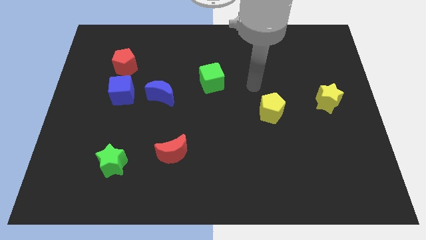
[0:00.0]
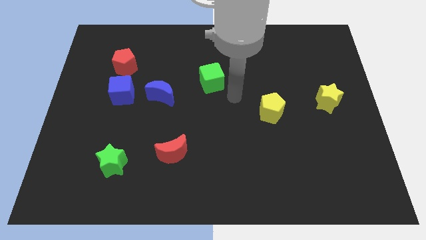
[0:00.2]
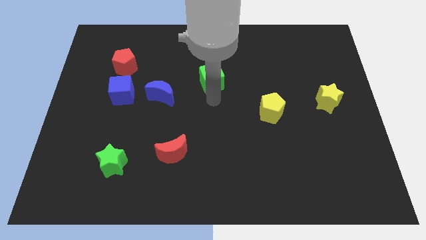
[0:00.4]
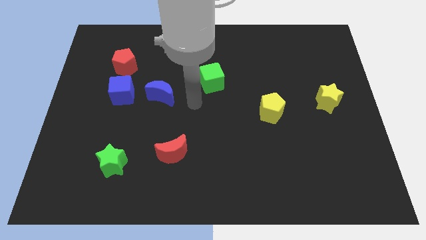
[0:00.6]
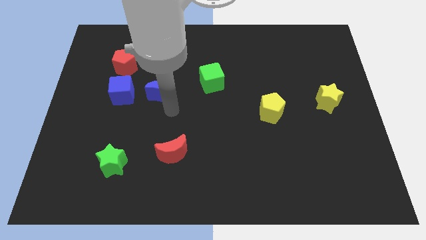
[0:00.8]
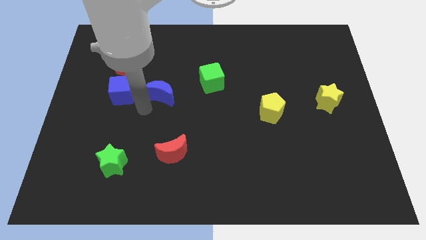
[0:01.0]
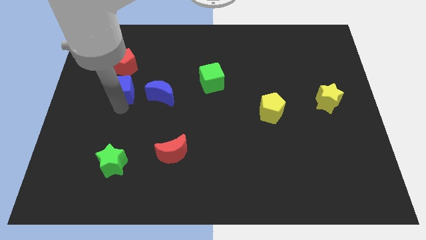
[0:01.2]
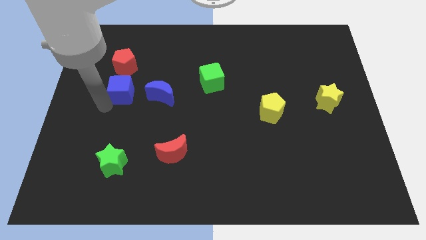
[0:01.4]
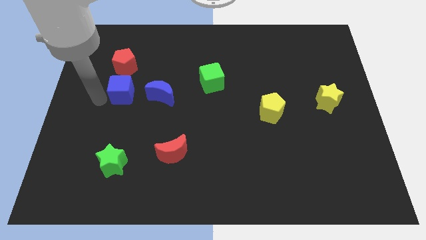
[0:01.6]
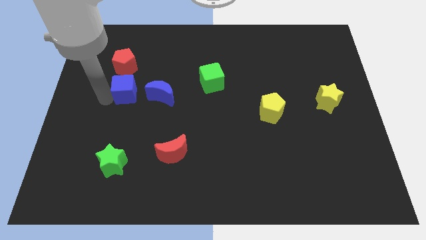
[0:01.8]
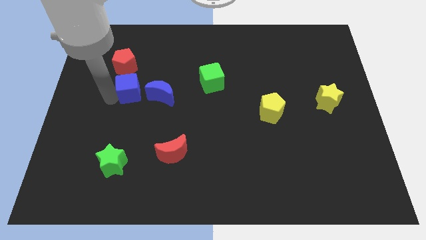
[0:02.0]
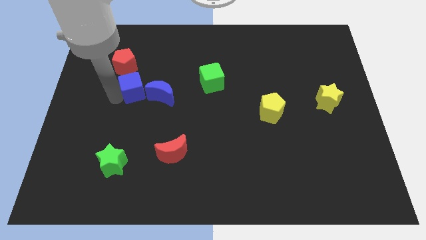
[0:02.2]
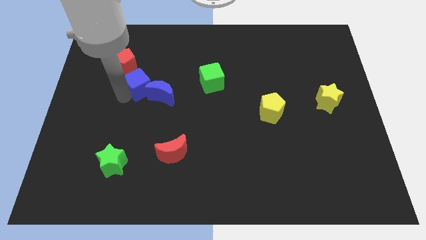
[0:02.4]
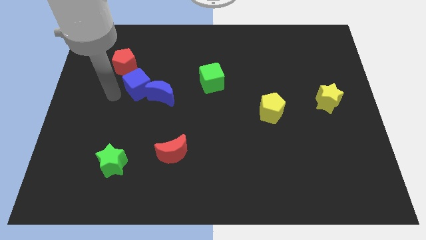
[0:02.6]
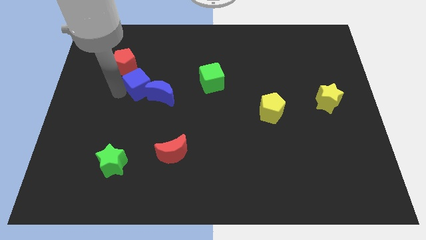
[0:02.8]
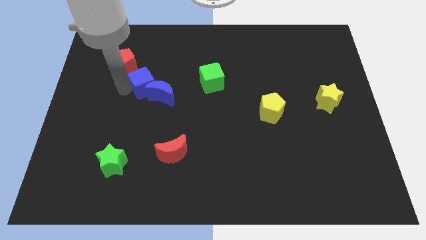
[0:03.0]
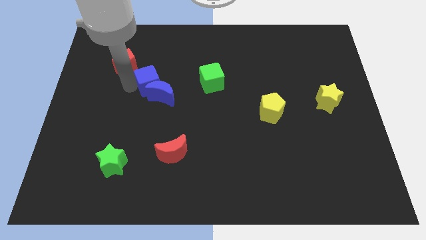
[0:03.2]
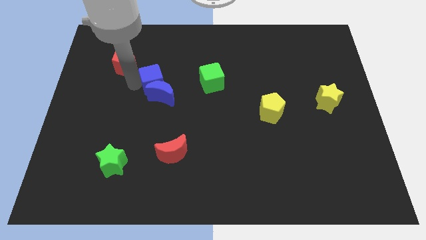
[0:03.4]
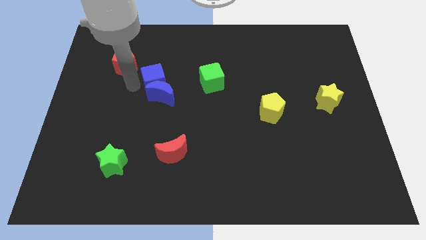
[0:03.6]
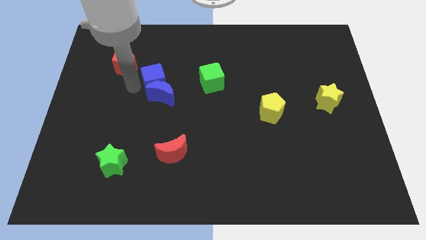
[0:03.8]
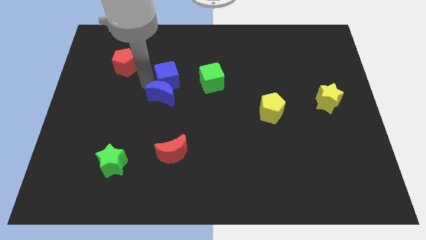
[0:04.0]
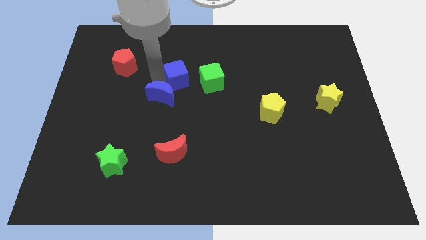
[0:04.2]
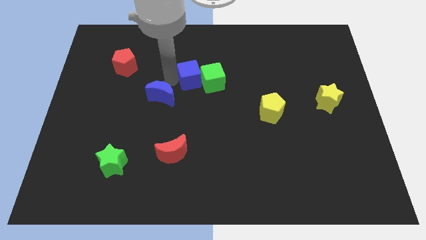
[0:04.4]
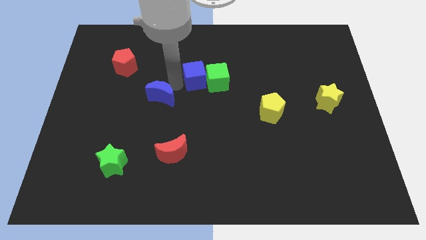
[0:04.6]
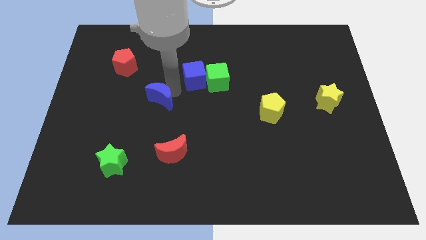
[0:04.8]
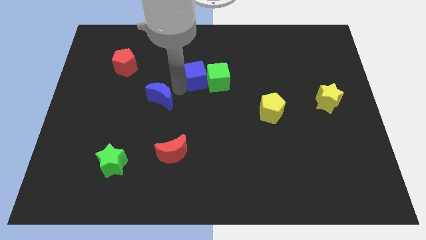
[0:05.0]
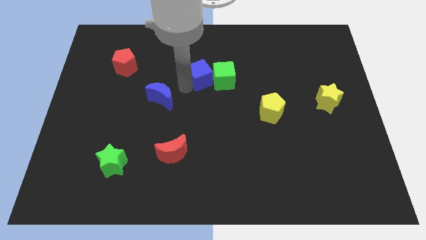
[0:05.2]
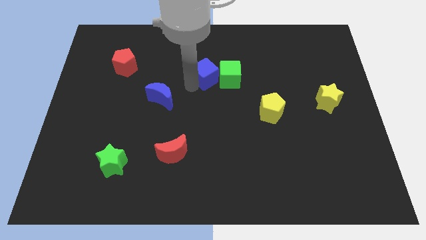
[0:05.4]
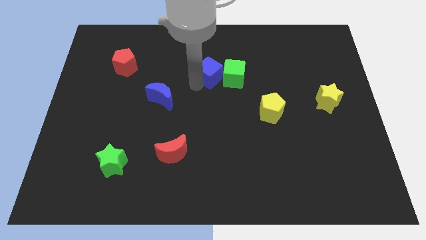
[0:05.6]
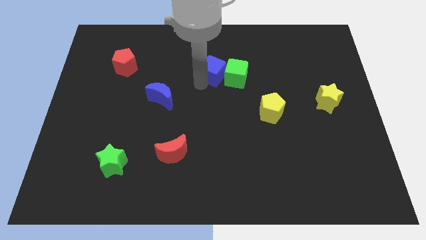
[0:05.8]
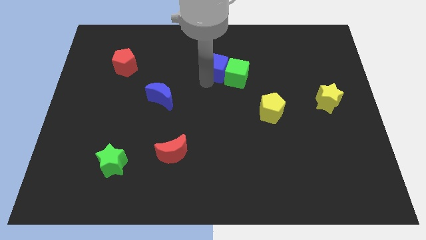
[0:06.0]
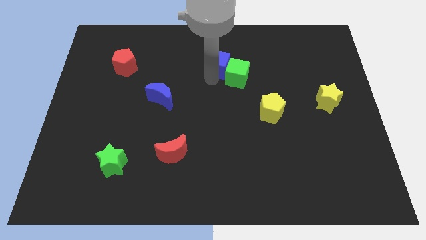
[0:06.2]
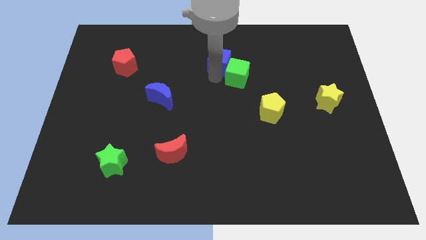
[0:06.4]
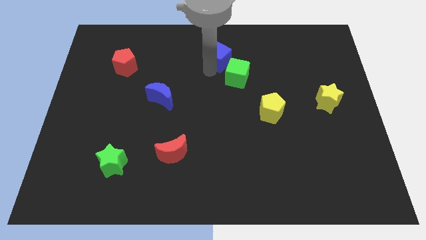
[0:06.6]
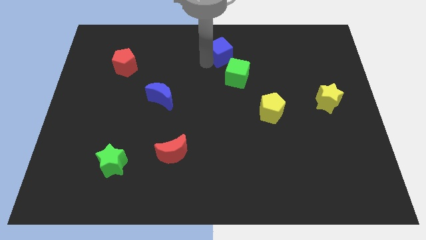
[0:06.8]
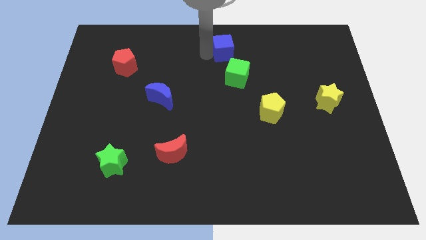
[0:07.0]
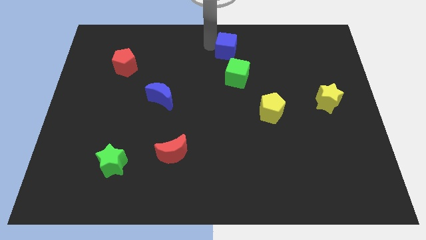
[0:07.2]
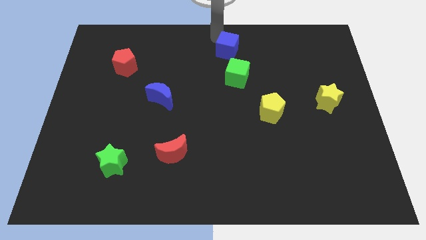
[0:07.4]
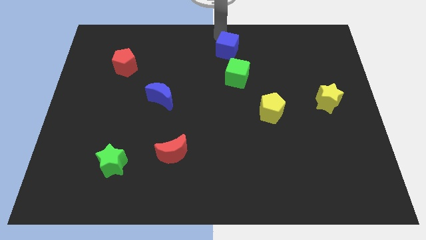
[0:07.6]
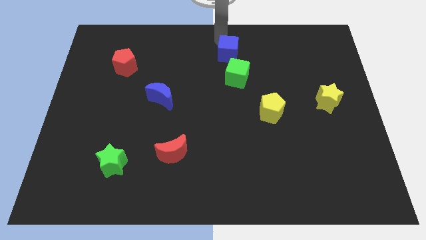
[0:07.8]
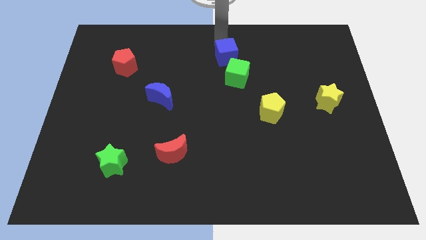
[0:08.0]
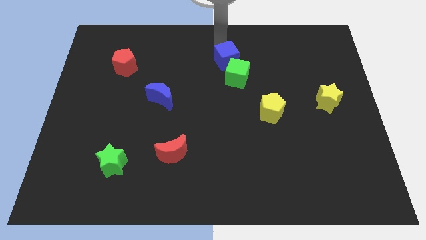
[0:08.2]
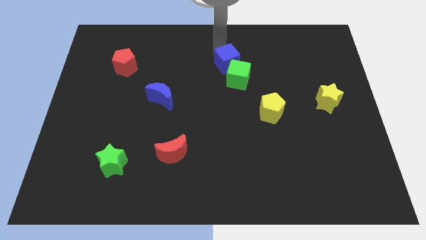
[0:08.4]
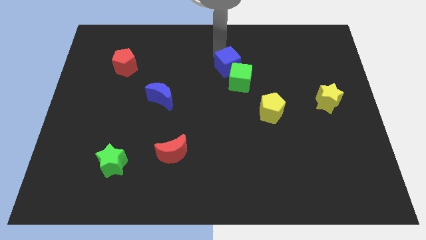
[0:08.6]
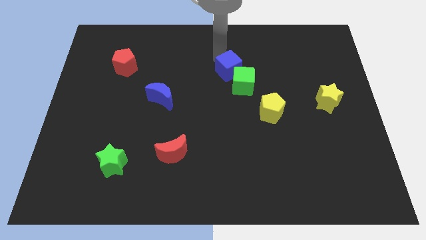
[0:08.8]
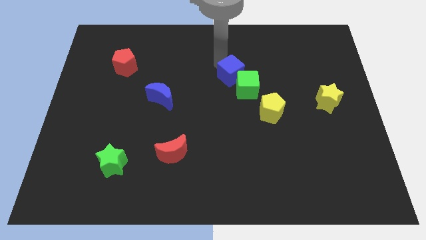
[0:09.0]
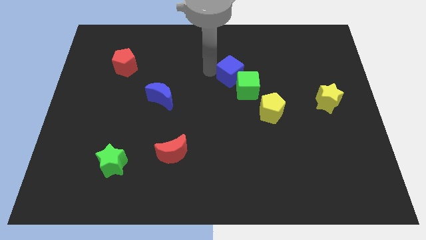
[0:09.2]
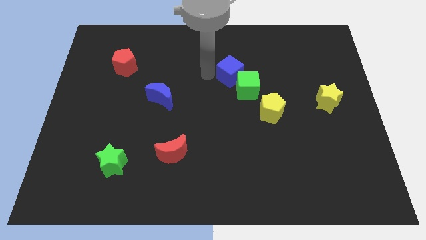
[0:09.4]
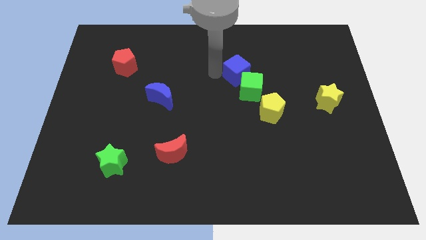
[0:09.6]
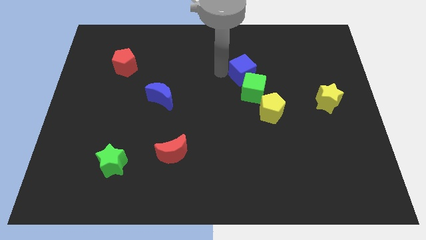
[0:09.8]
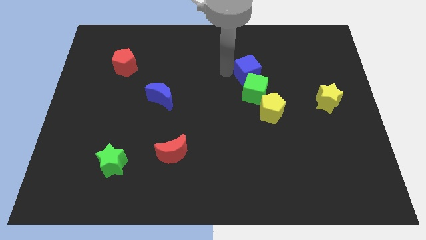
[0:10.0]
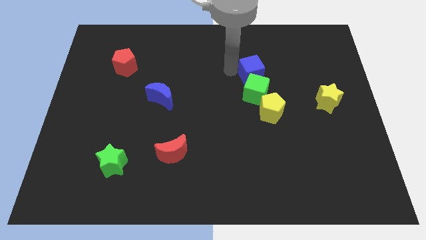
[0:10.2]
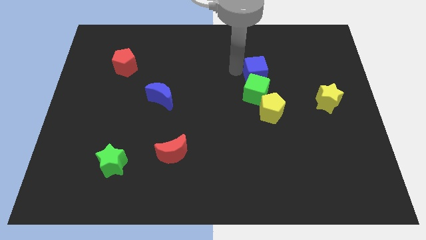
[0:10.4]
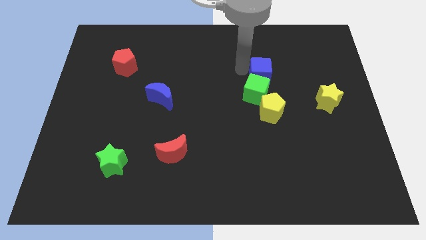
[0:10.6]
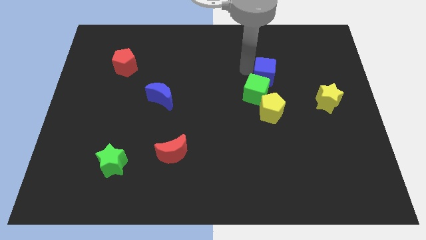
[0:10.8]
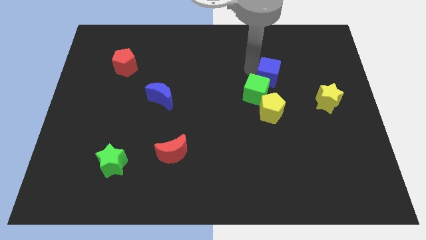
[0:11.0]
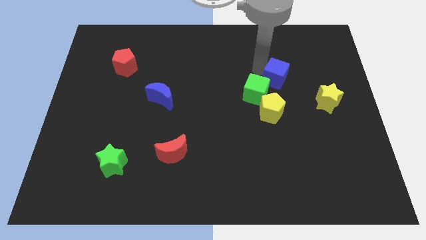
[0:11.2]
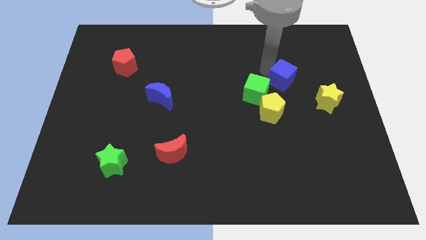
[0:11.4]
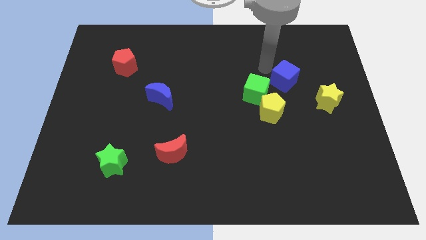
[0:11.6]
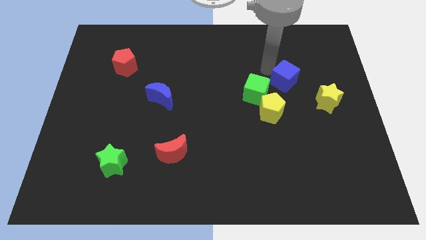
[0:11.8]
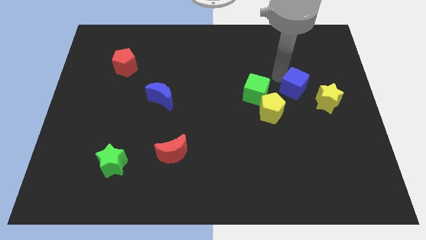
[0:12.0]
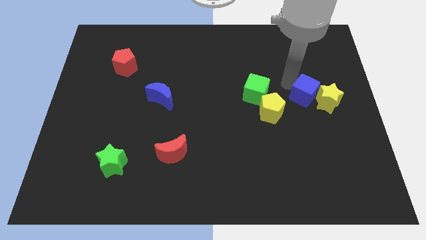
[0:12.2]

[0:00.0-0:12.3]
slide the blue cube to the yellow star

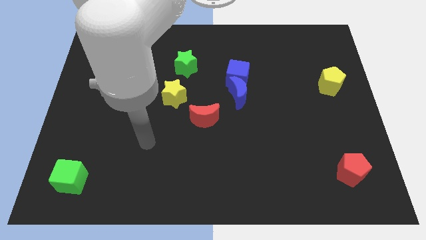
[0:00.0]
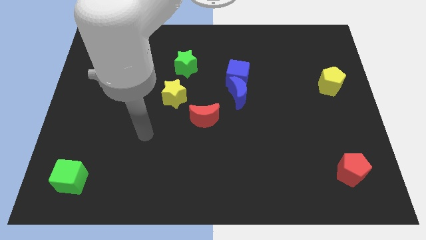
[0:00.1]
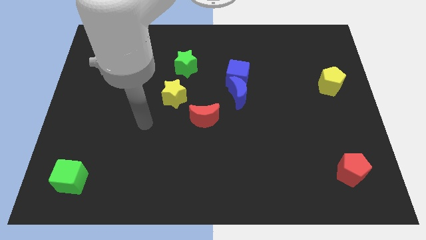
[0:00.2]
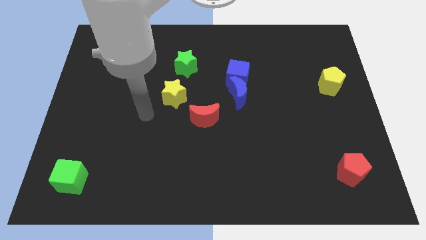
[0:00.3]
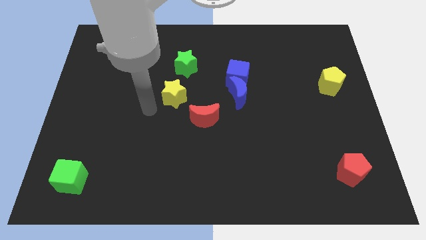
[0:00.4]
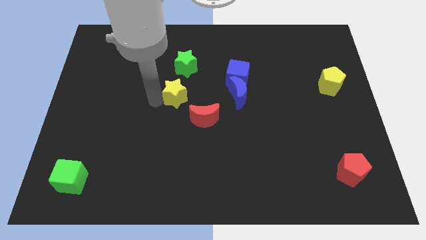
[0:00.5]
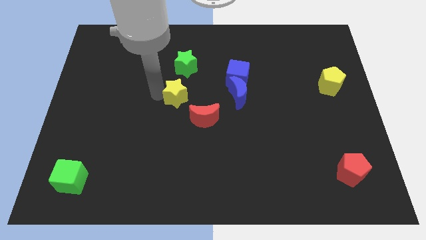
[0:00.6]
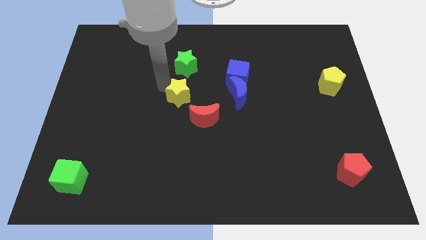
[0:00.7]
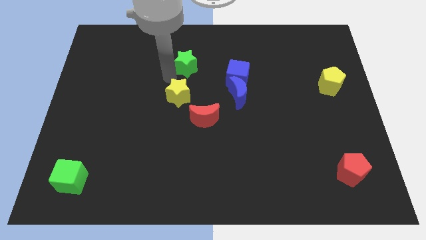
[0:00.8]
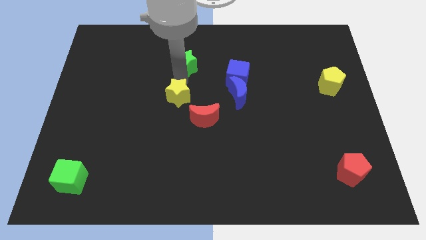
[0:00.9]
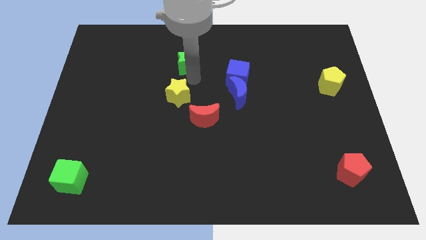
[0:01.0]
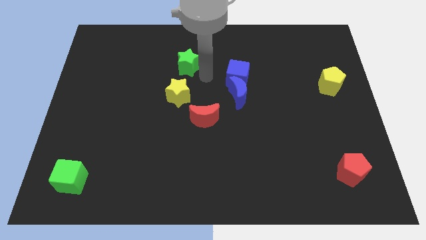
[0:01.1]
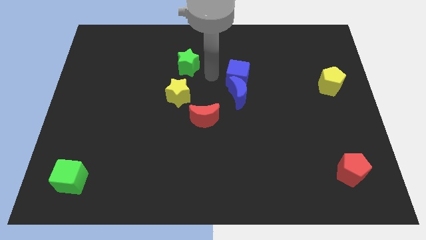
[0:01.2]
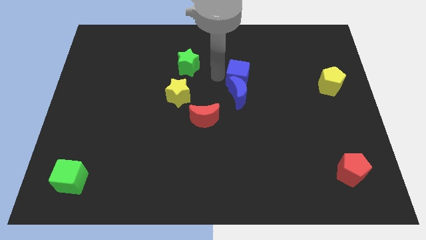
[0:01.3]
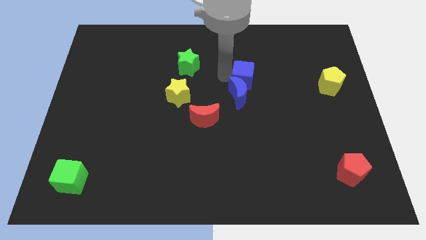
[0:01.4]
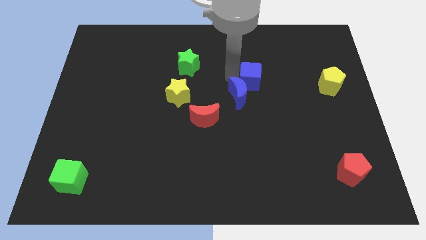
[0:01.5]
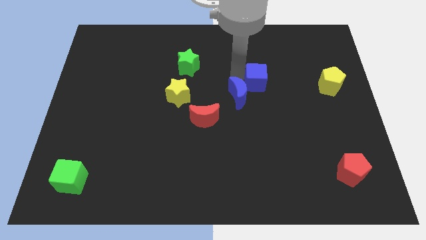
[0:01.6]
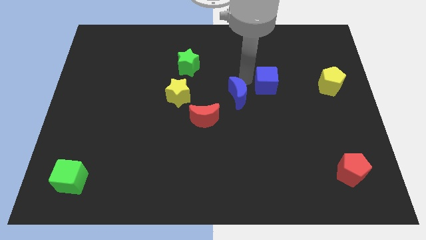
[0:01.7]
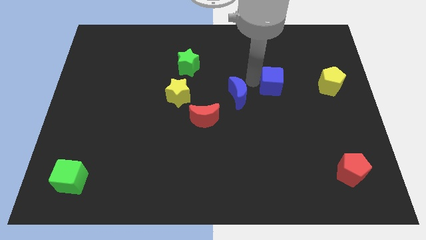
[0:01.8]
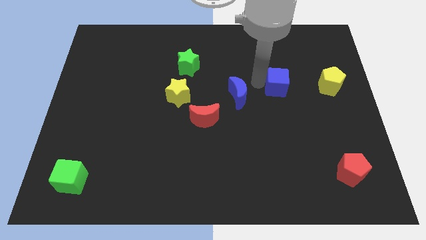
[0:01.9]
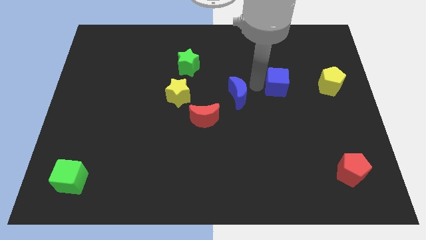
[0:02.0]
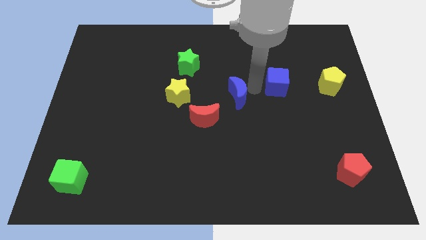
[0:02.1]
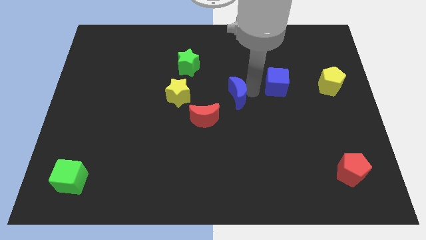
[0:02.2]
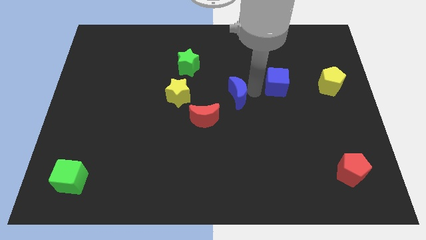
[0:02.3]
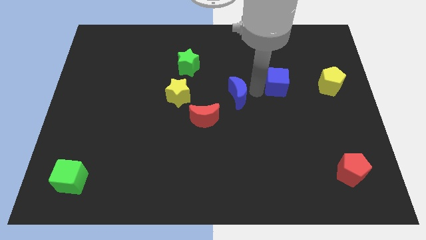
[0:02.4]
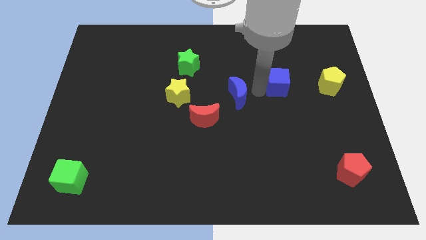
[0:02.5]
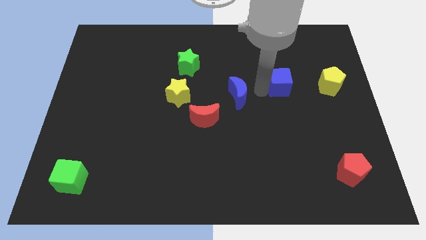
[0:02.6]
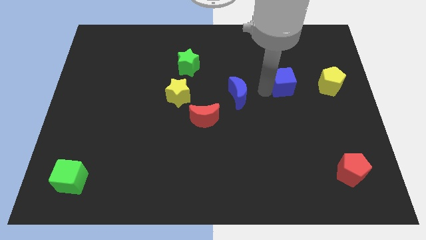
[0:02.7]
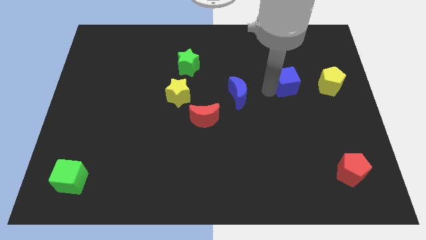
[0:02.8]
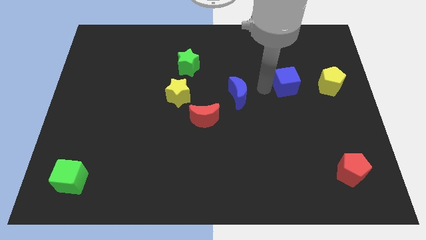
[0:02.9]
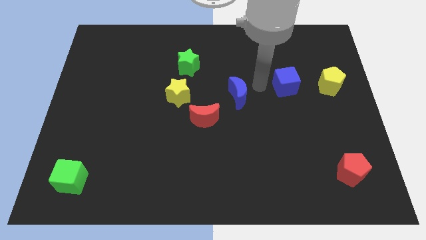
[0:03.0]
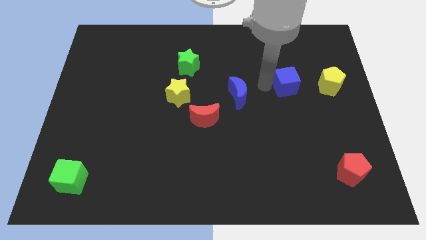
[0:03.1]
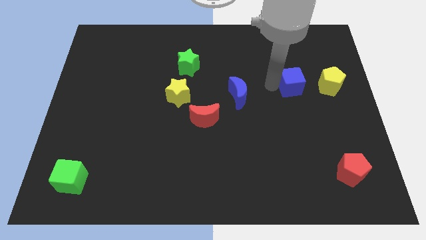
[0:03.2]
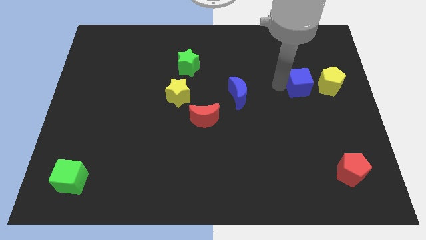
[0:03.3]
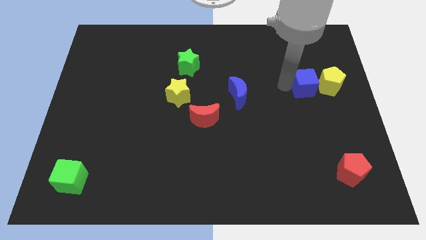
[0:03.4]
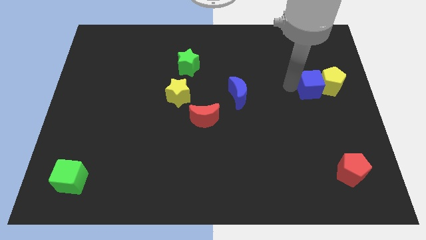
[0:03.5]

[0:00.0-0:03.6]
slide the blue cube to the yellow pentagon
